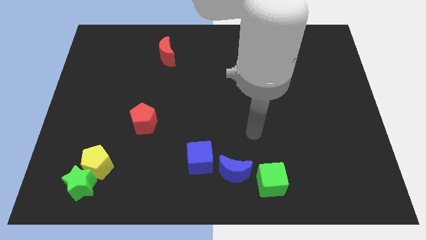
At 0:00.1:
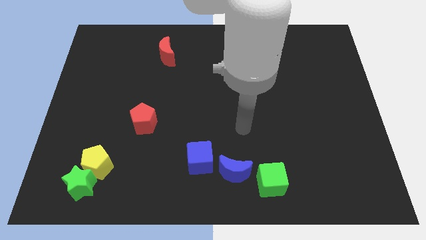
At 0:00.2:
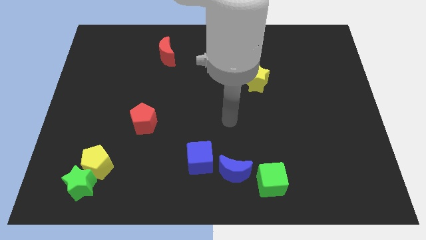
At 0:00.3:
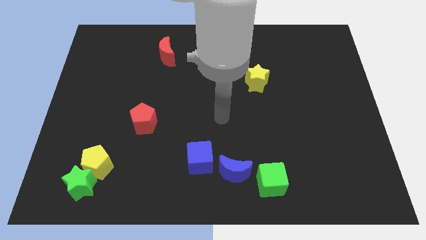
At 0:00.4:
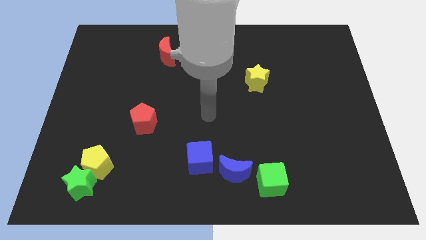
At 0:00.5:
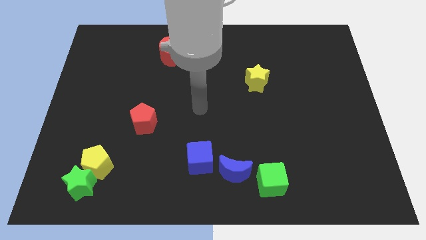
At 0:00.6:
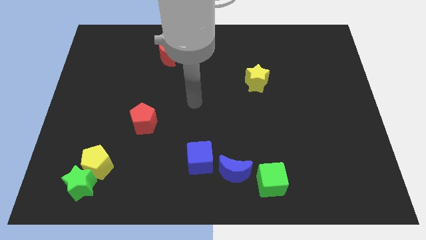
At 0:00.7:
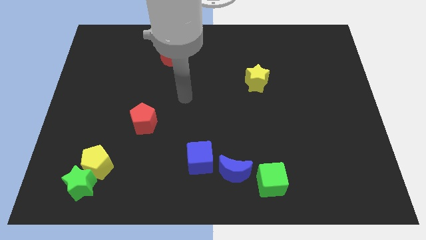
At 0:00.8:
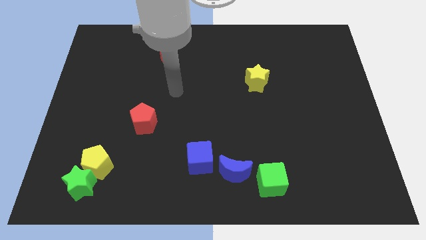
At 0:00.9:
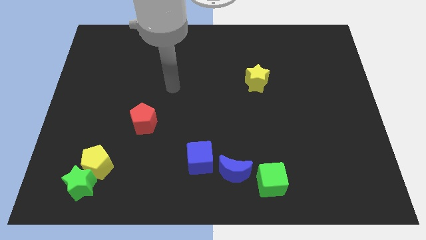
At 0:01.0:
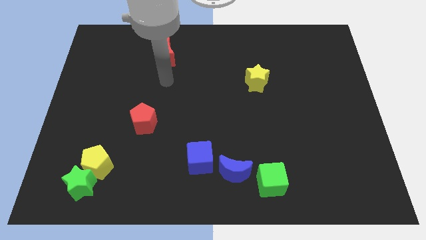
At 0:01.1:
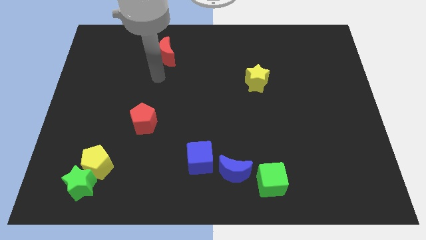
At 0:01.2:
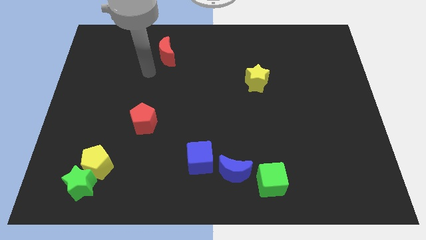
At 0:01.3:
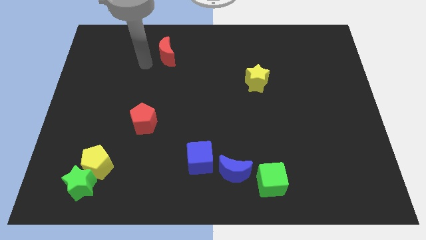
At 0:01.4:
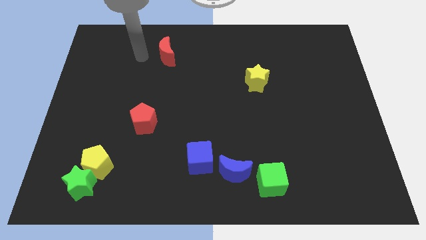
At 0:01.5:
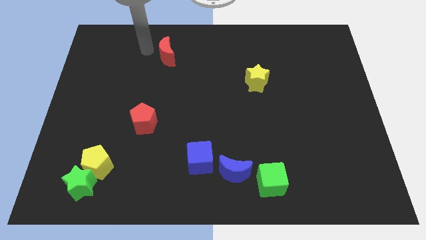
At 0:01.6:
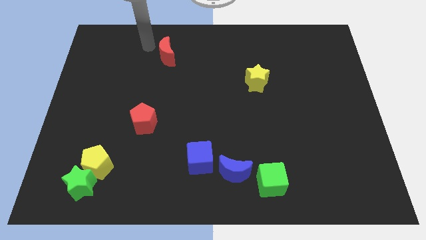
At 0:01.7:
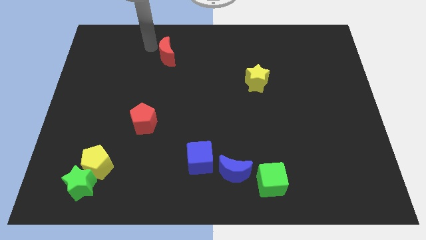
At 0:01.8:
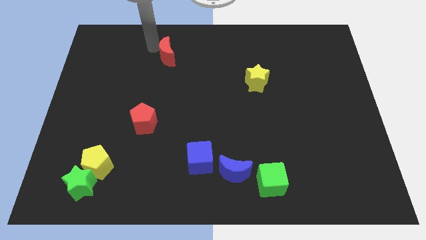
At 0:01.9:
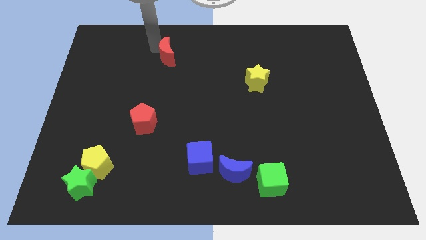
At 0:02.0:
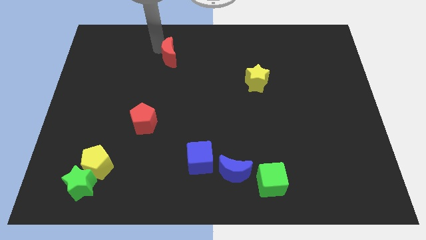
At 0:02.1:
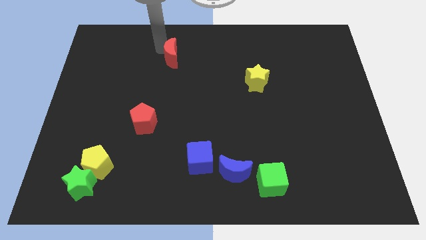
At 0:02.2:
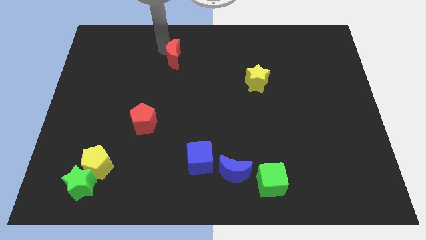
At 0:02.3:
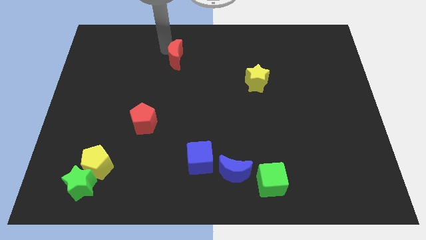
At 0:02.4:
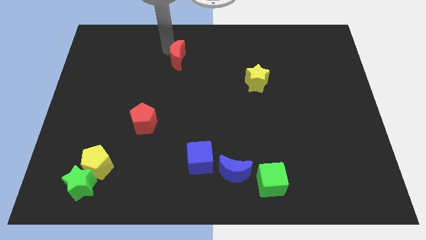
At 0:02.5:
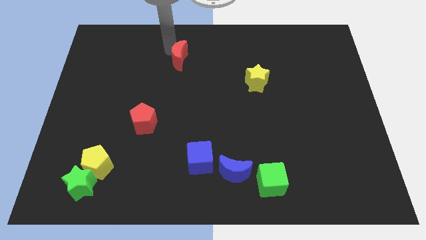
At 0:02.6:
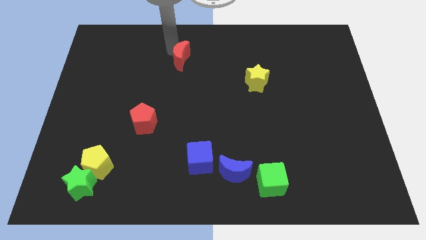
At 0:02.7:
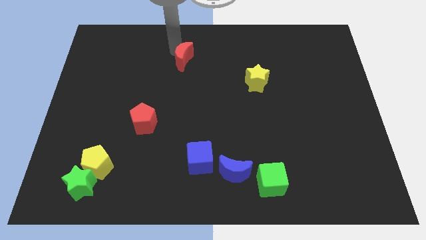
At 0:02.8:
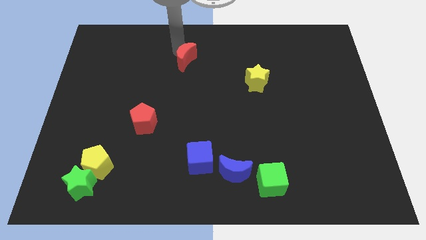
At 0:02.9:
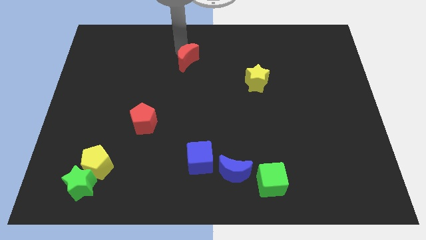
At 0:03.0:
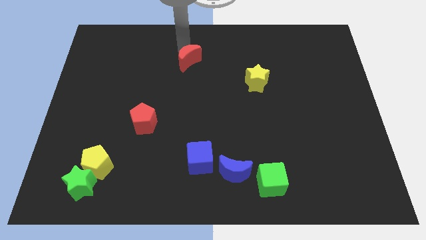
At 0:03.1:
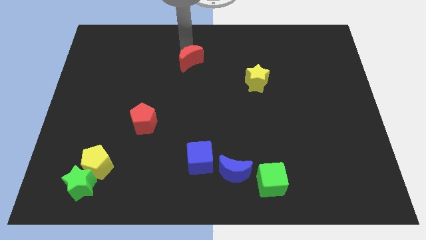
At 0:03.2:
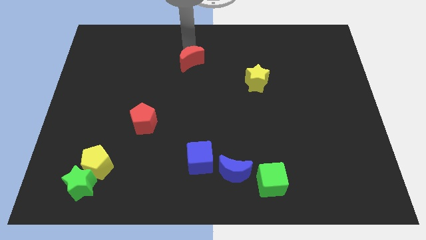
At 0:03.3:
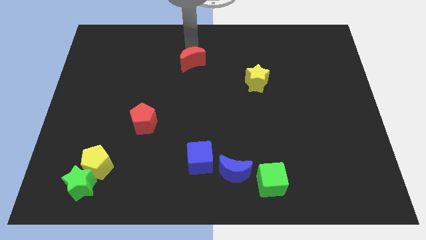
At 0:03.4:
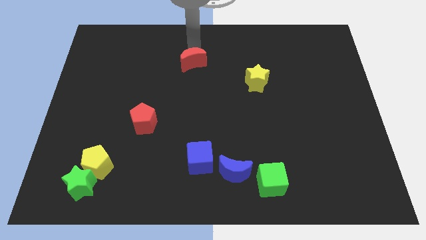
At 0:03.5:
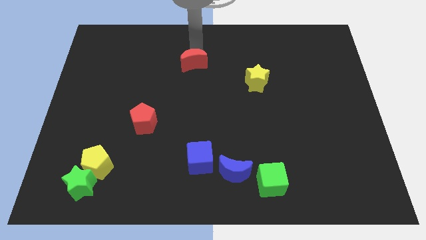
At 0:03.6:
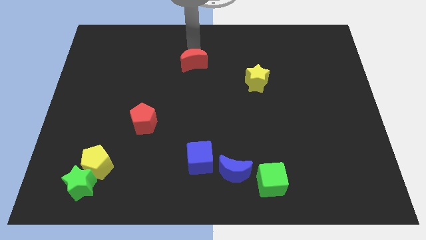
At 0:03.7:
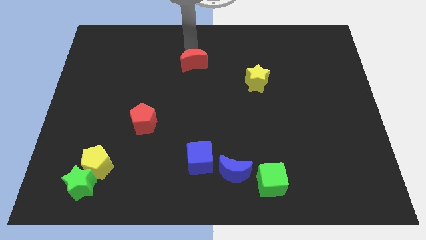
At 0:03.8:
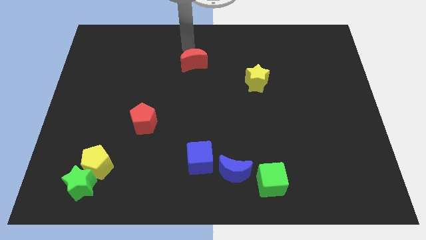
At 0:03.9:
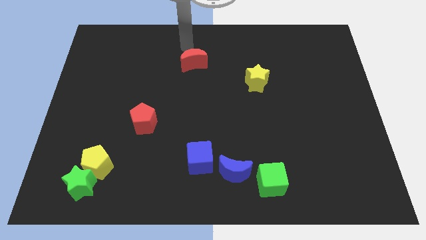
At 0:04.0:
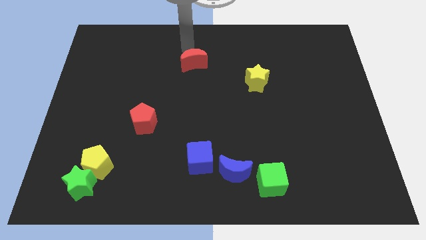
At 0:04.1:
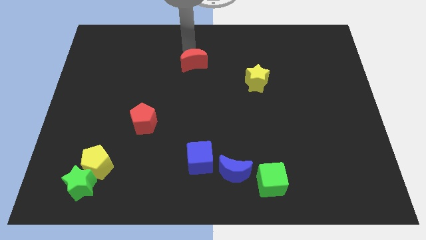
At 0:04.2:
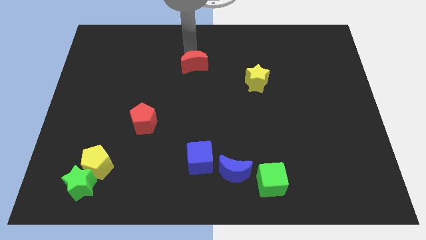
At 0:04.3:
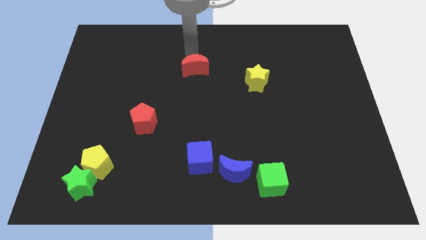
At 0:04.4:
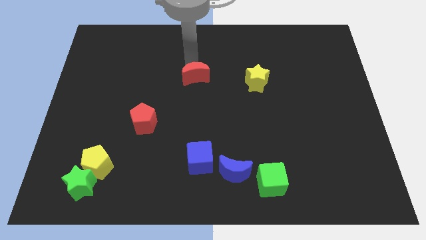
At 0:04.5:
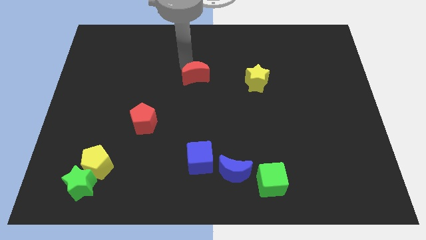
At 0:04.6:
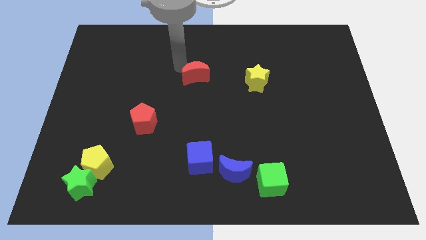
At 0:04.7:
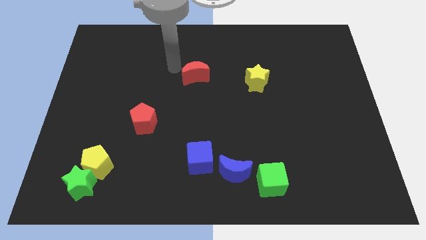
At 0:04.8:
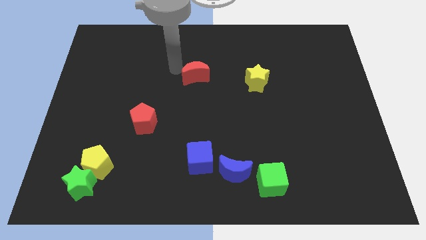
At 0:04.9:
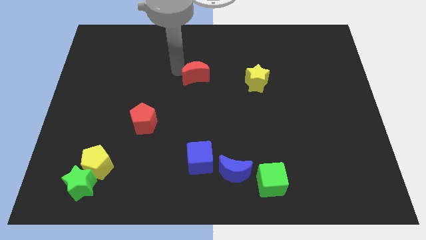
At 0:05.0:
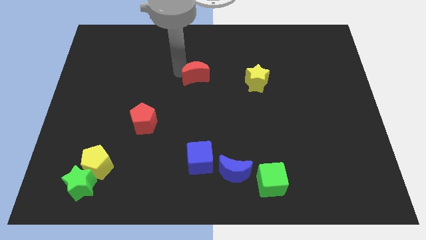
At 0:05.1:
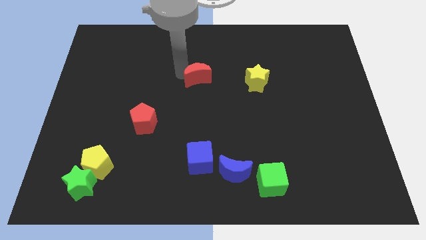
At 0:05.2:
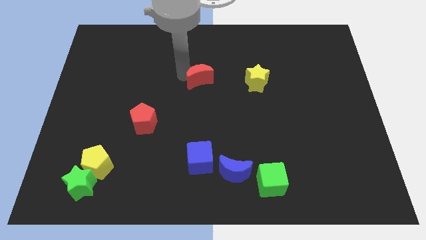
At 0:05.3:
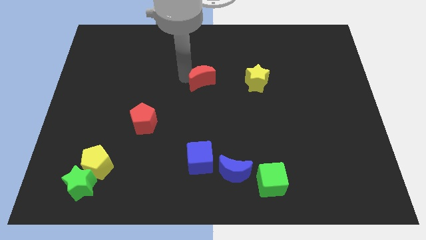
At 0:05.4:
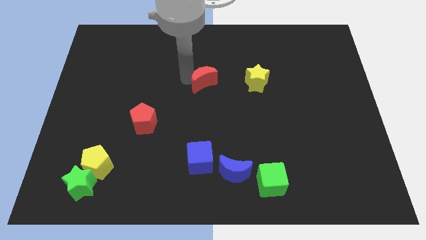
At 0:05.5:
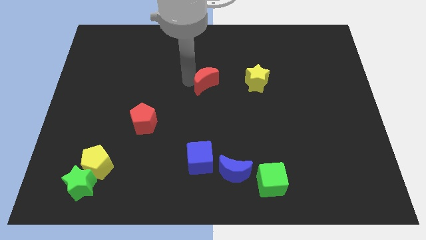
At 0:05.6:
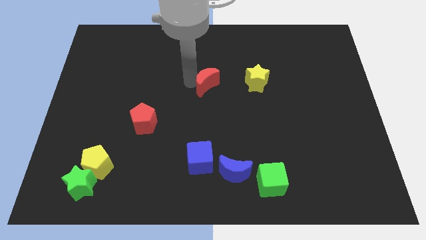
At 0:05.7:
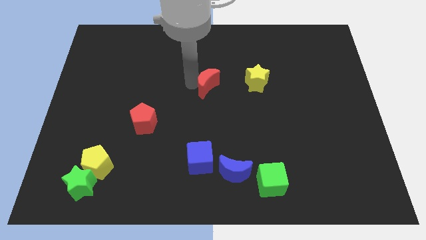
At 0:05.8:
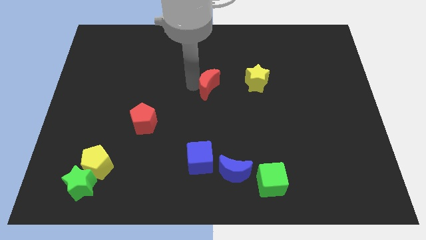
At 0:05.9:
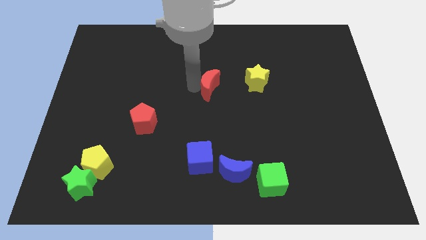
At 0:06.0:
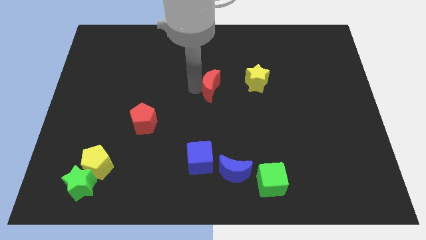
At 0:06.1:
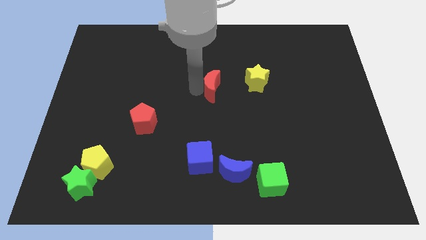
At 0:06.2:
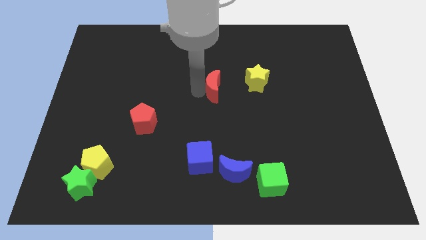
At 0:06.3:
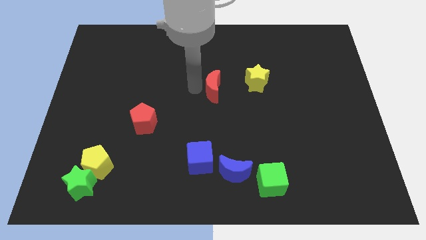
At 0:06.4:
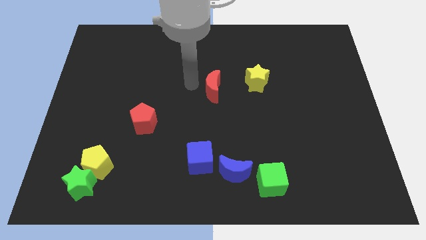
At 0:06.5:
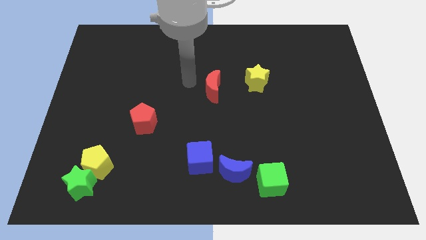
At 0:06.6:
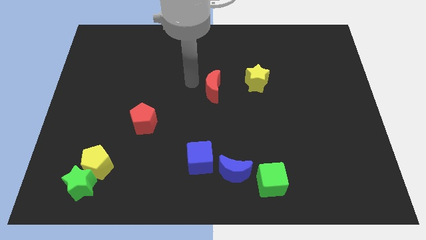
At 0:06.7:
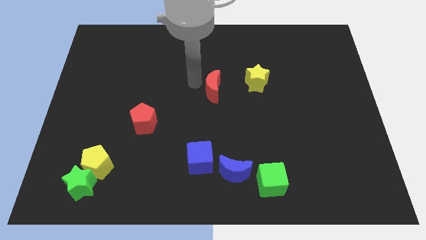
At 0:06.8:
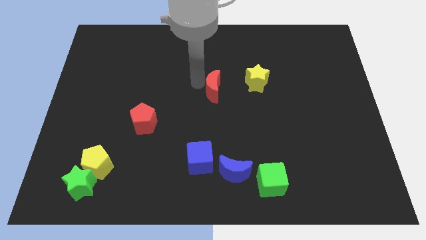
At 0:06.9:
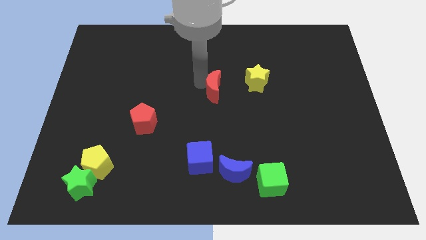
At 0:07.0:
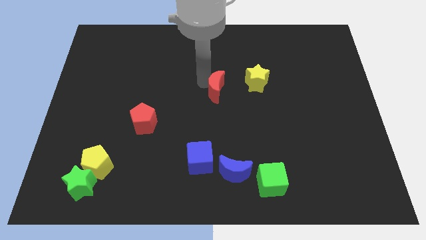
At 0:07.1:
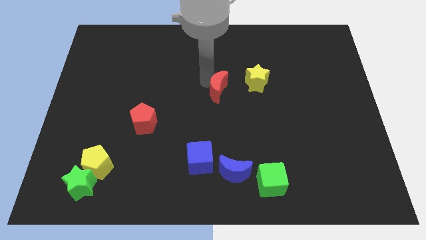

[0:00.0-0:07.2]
move the red moon diagonally down and to the left of the yellow star

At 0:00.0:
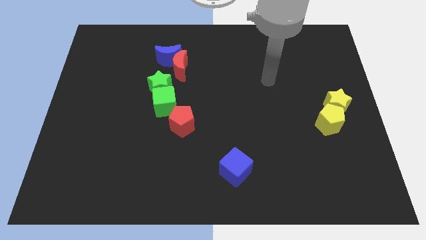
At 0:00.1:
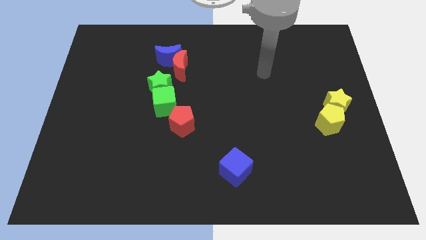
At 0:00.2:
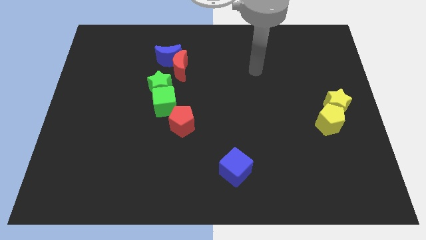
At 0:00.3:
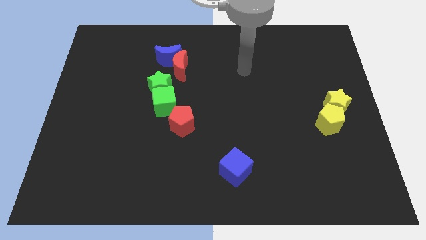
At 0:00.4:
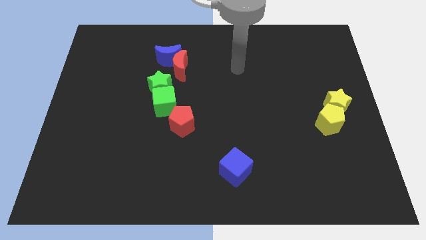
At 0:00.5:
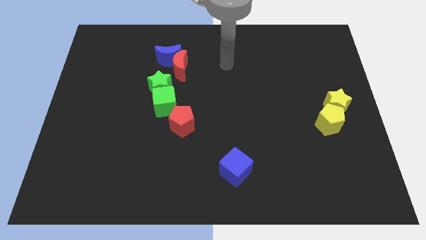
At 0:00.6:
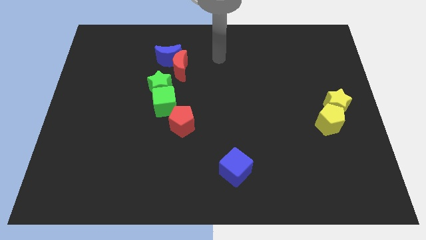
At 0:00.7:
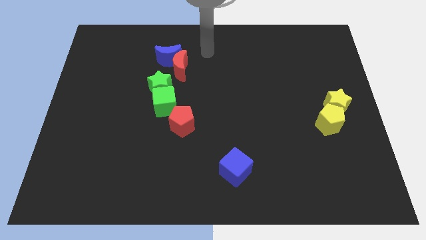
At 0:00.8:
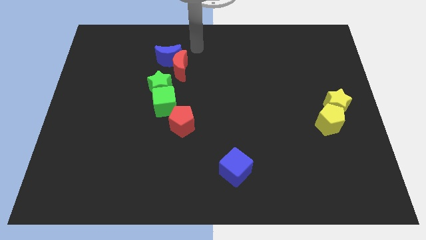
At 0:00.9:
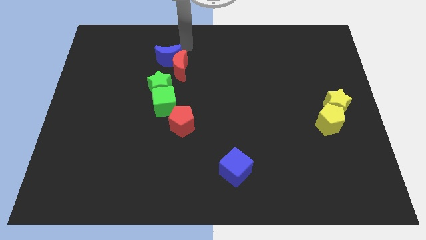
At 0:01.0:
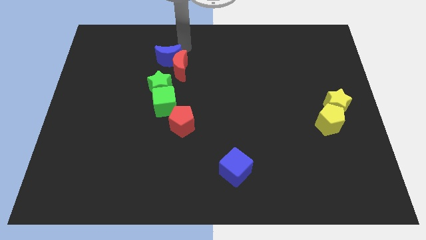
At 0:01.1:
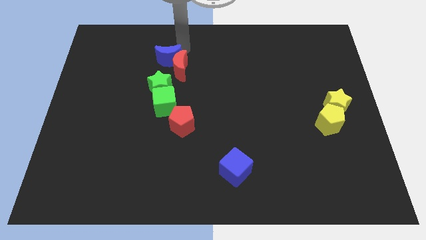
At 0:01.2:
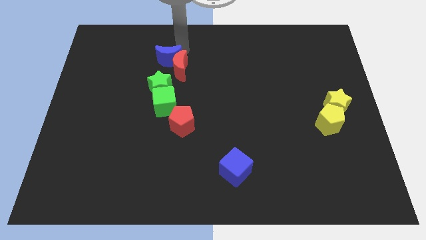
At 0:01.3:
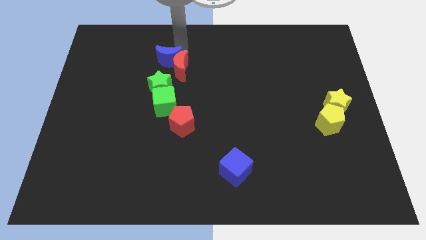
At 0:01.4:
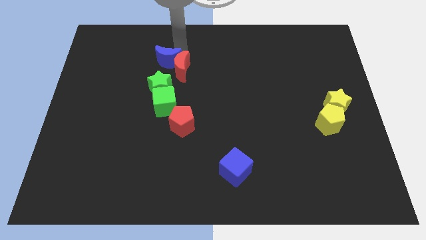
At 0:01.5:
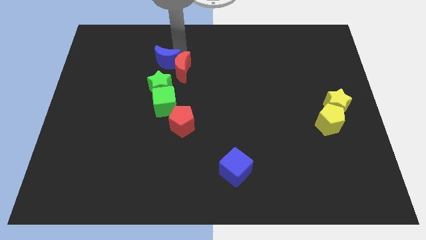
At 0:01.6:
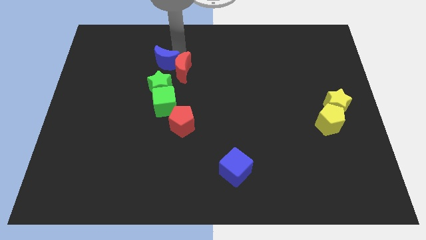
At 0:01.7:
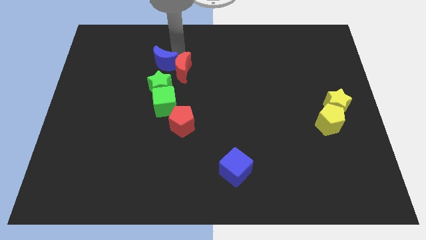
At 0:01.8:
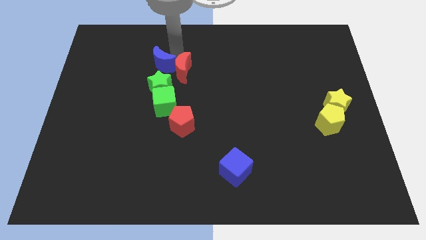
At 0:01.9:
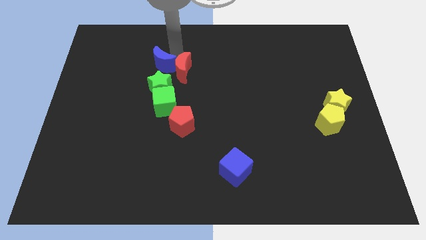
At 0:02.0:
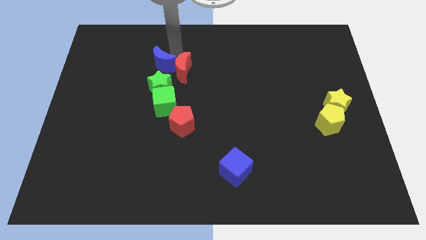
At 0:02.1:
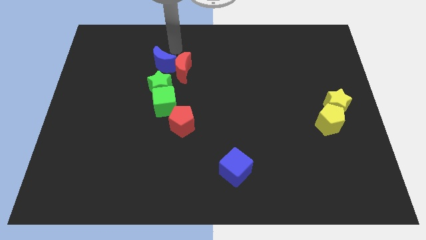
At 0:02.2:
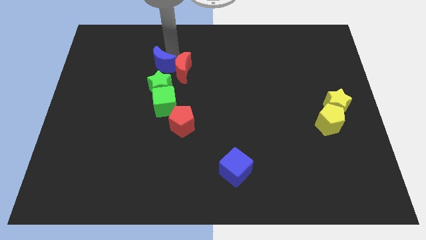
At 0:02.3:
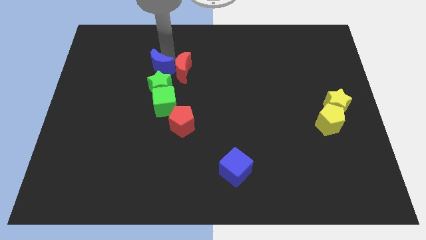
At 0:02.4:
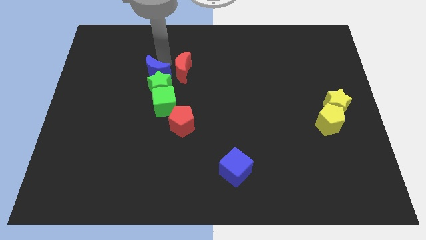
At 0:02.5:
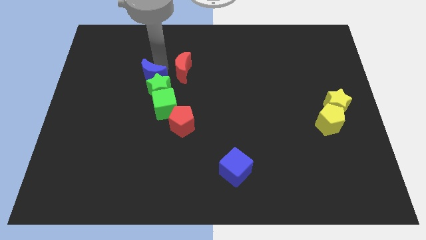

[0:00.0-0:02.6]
move the blue moon diagonally up and to the left of the green cube
